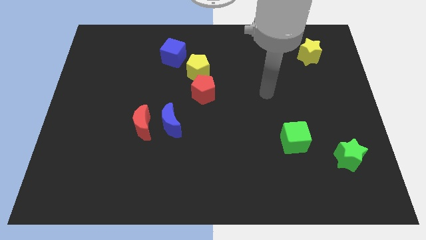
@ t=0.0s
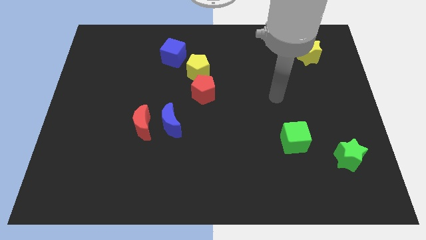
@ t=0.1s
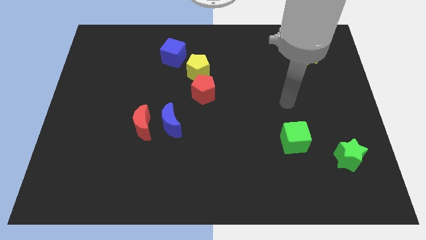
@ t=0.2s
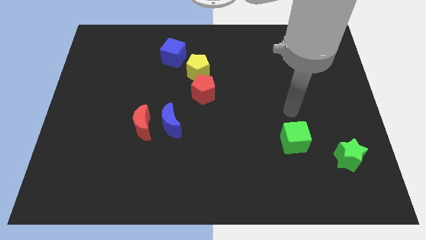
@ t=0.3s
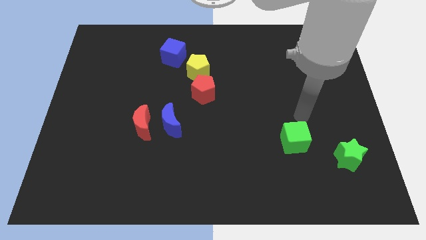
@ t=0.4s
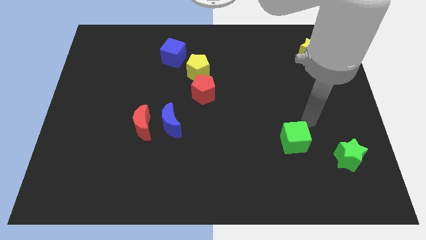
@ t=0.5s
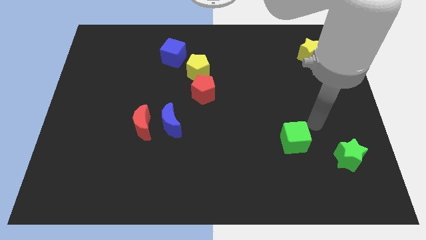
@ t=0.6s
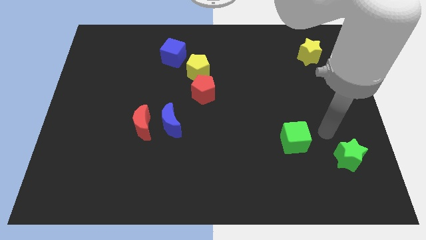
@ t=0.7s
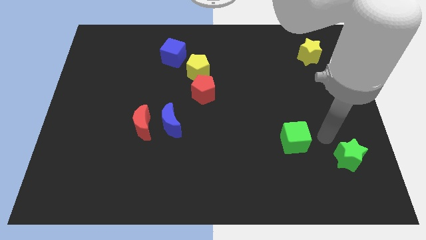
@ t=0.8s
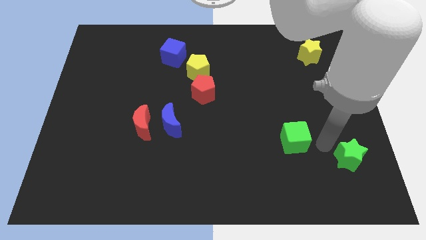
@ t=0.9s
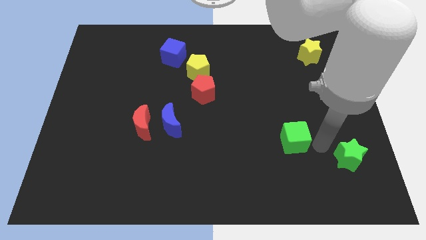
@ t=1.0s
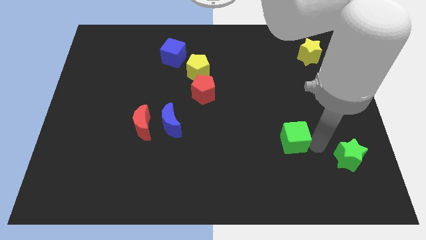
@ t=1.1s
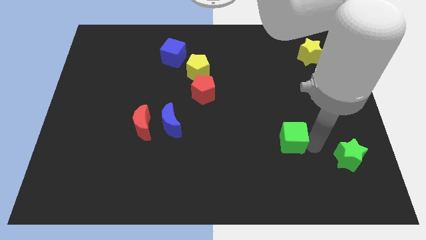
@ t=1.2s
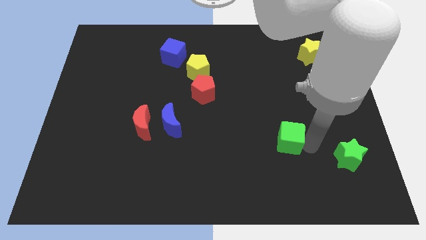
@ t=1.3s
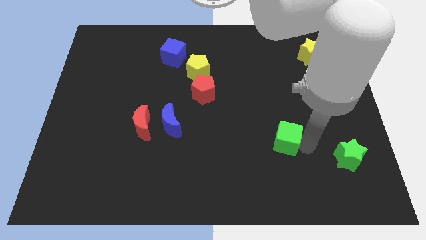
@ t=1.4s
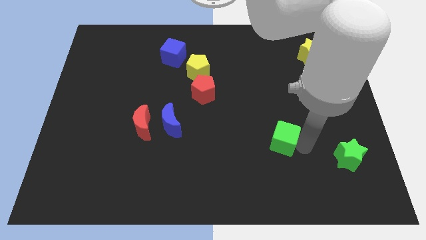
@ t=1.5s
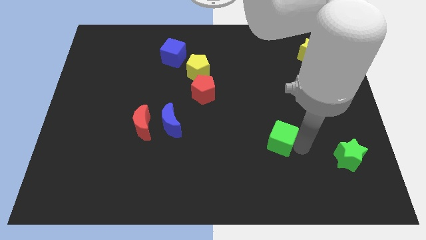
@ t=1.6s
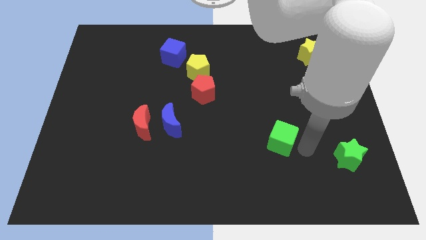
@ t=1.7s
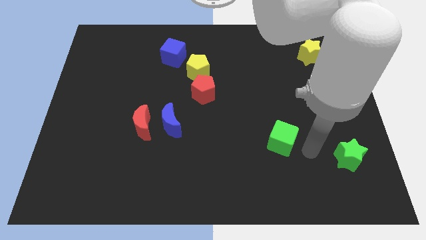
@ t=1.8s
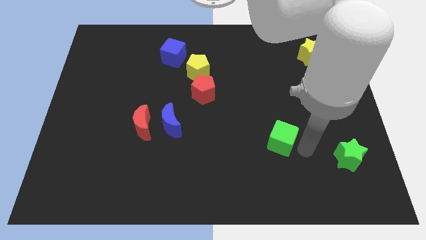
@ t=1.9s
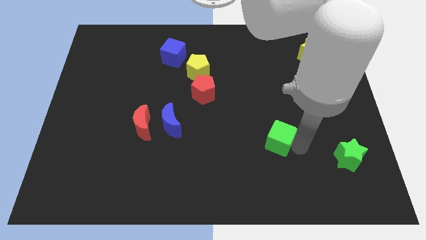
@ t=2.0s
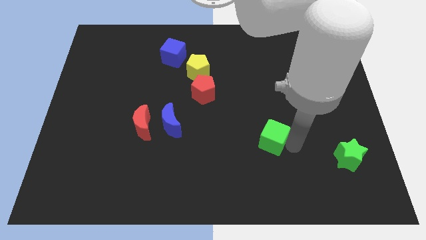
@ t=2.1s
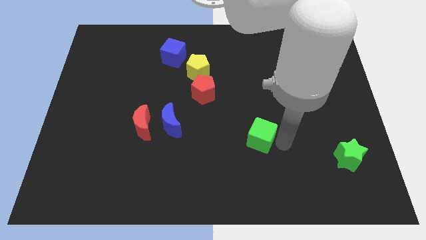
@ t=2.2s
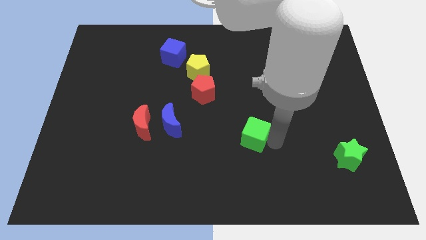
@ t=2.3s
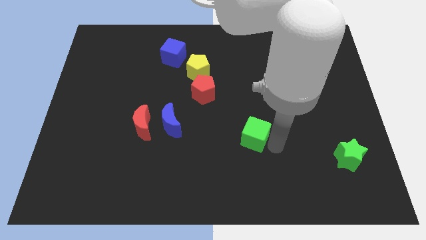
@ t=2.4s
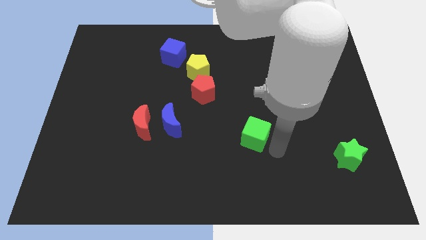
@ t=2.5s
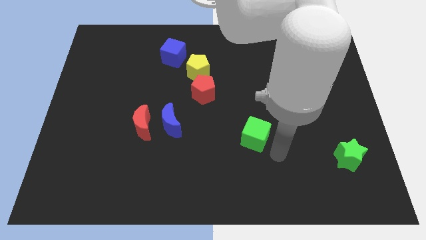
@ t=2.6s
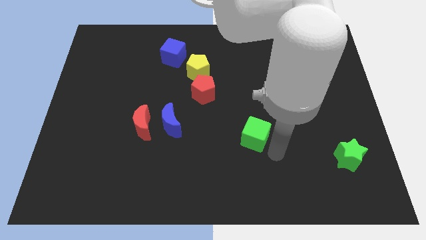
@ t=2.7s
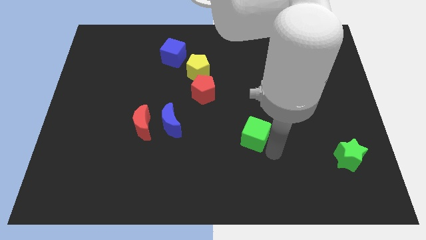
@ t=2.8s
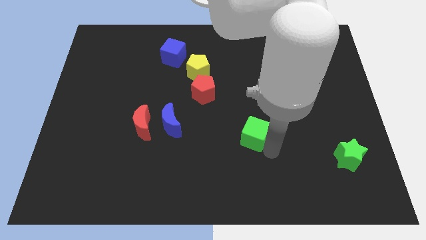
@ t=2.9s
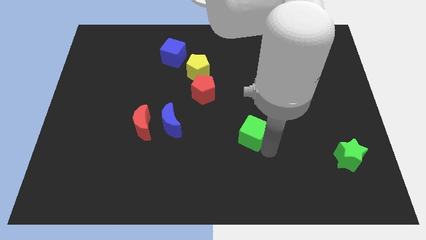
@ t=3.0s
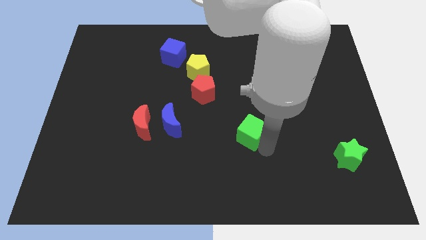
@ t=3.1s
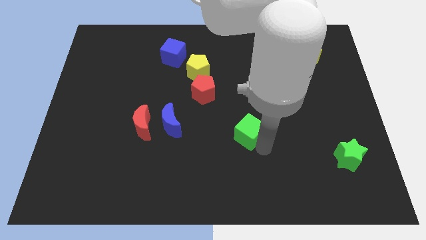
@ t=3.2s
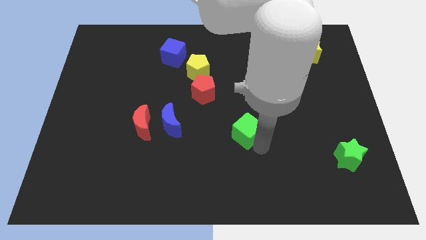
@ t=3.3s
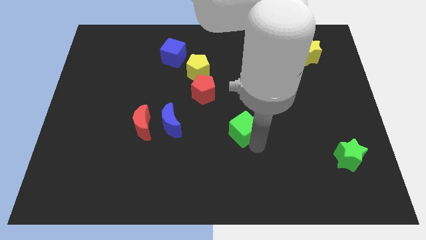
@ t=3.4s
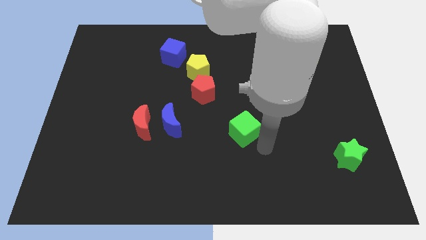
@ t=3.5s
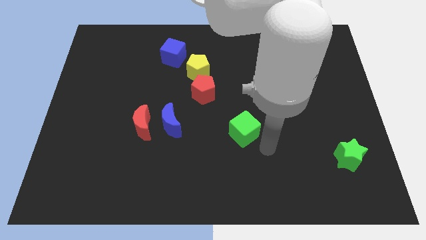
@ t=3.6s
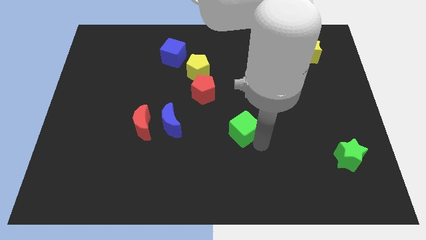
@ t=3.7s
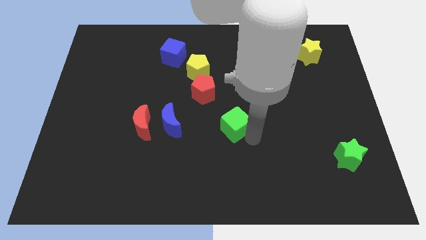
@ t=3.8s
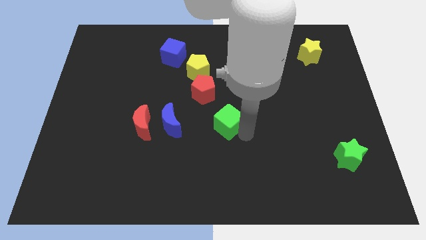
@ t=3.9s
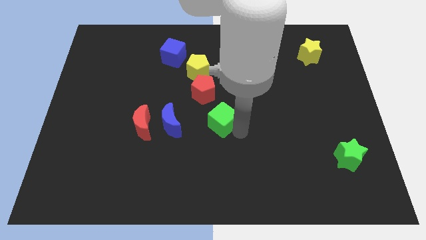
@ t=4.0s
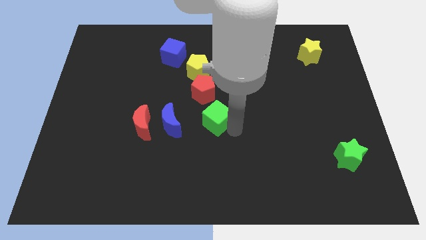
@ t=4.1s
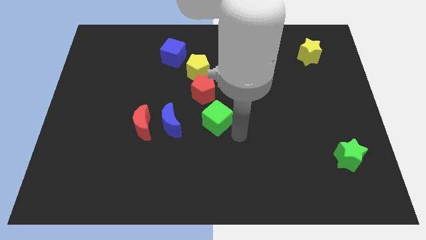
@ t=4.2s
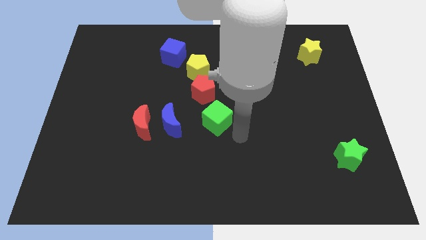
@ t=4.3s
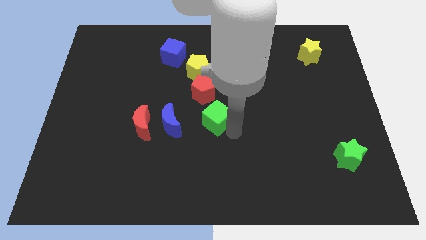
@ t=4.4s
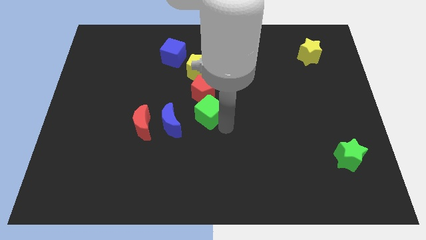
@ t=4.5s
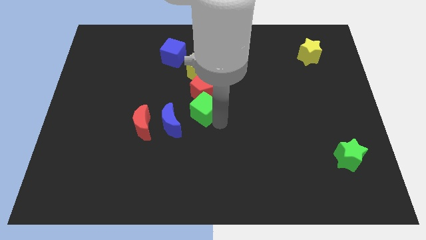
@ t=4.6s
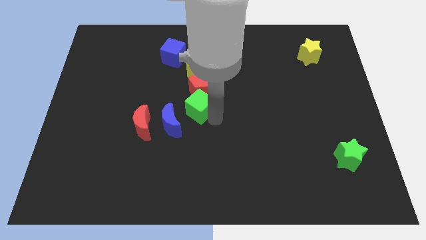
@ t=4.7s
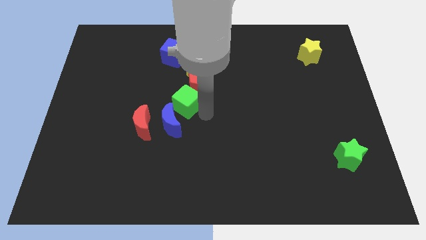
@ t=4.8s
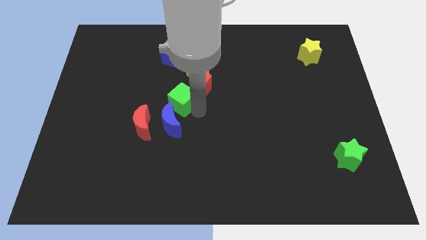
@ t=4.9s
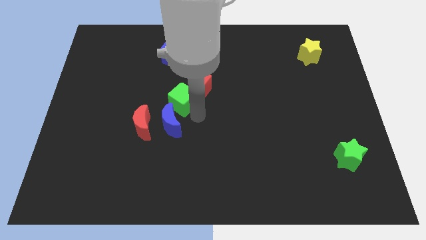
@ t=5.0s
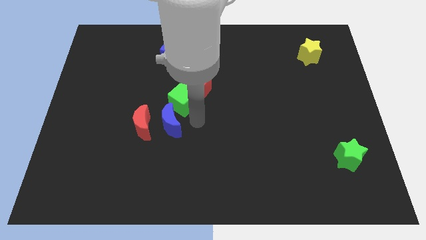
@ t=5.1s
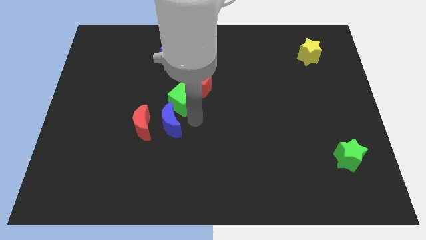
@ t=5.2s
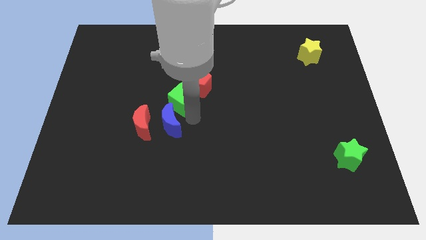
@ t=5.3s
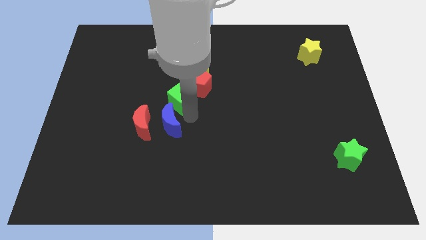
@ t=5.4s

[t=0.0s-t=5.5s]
move the green cube to the bottom of the blue cube

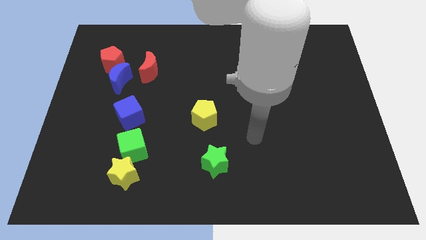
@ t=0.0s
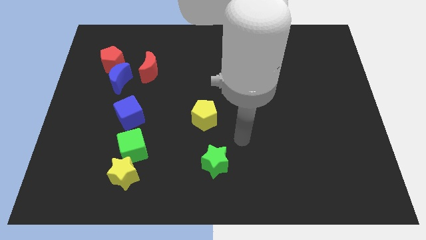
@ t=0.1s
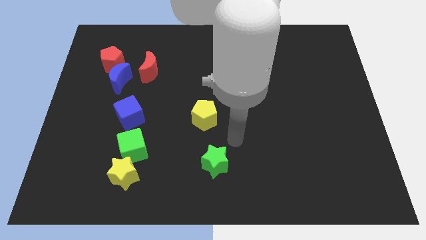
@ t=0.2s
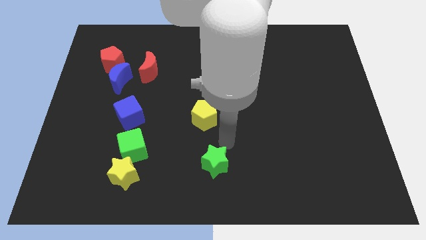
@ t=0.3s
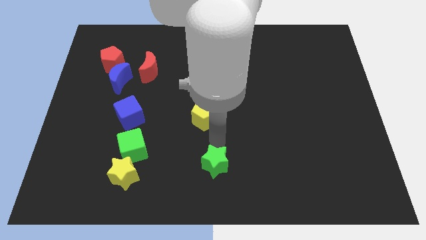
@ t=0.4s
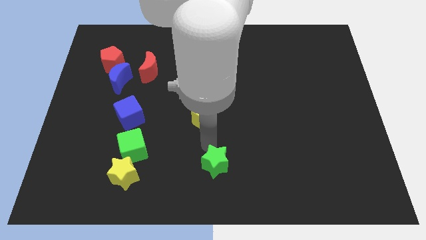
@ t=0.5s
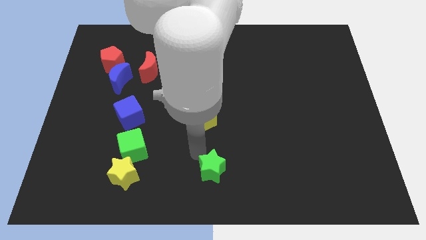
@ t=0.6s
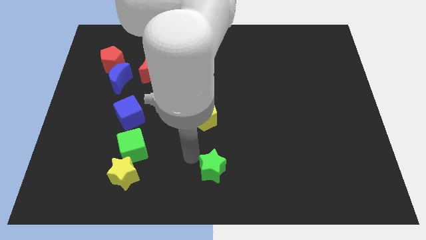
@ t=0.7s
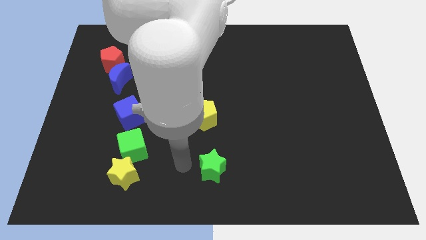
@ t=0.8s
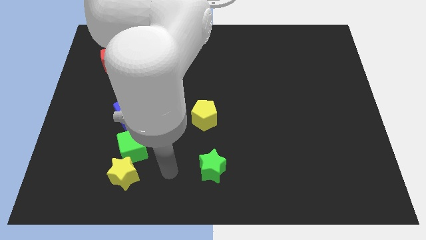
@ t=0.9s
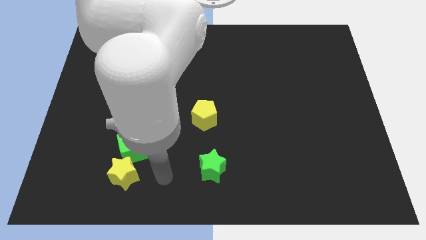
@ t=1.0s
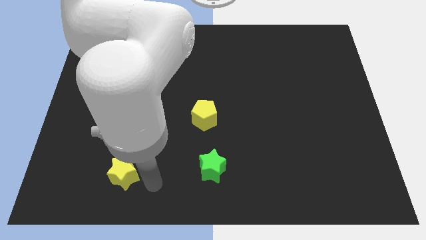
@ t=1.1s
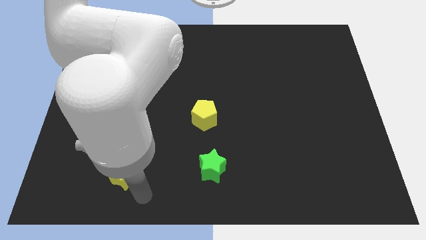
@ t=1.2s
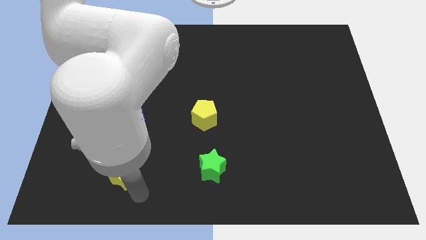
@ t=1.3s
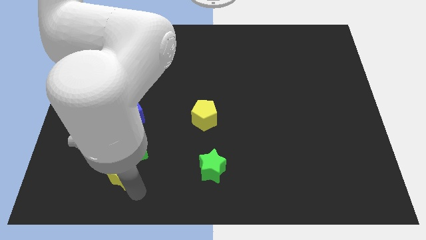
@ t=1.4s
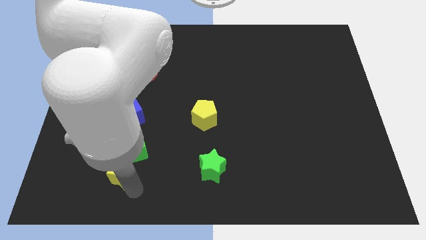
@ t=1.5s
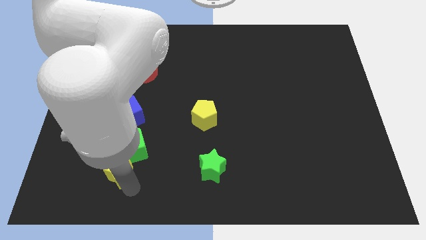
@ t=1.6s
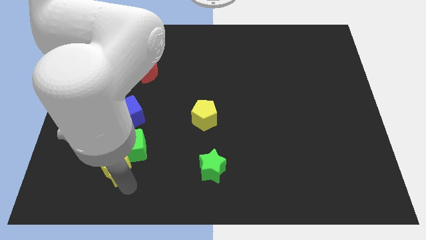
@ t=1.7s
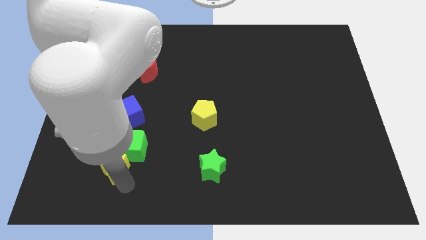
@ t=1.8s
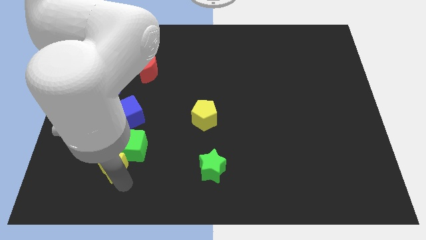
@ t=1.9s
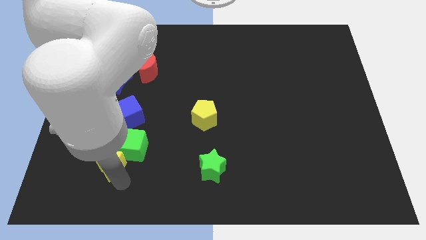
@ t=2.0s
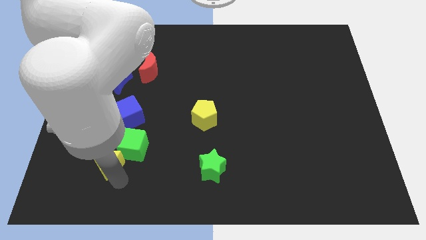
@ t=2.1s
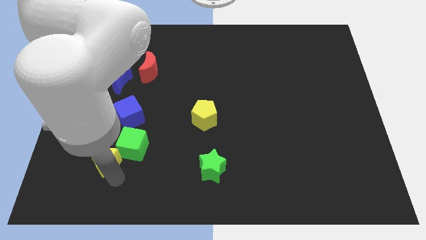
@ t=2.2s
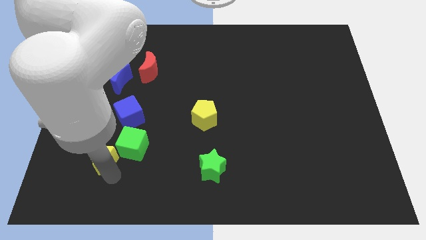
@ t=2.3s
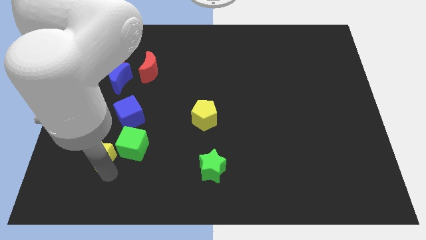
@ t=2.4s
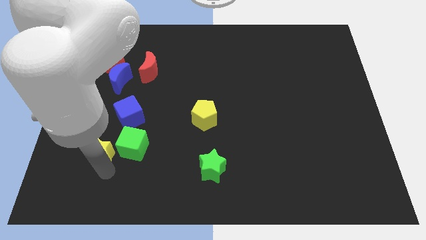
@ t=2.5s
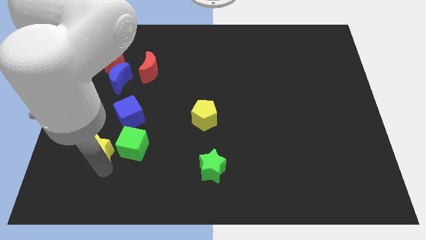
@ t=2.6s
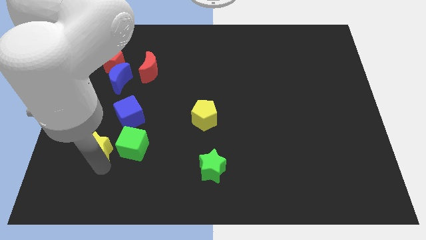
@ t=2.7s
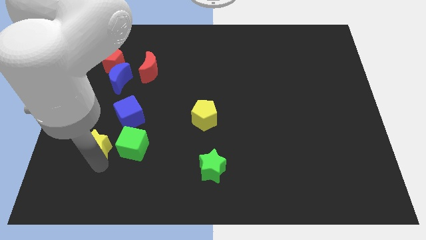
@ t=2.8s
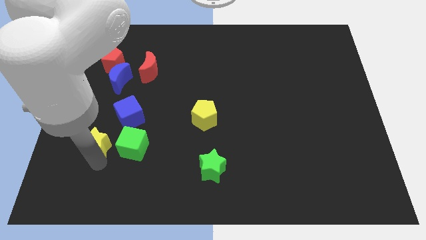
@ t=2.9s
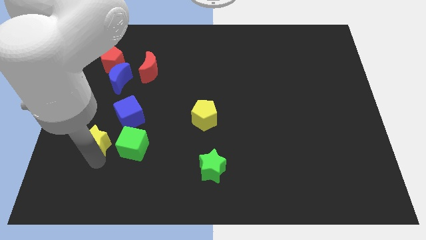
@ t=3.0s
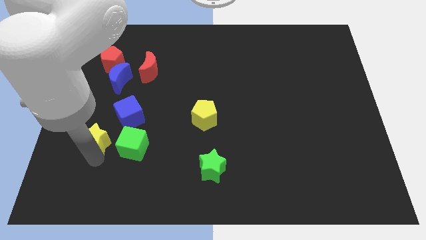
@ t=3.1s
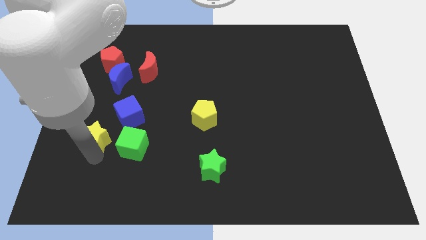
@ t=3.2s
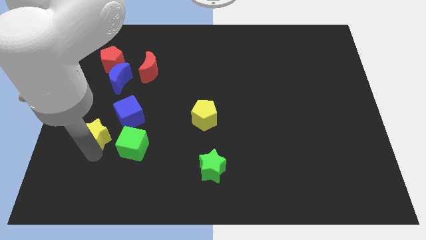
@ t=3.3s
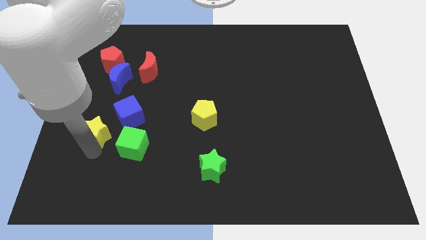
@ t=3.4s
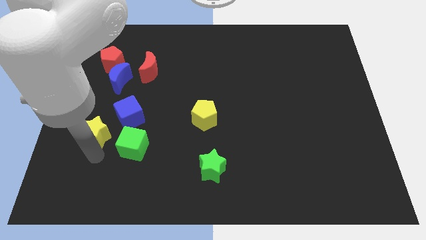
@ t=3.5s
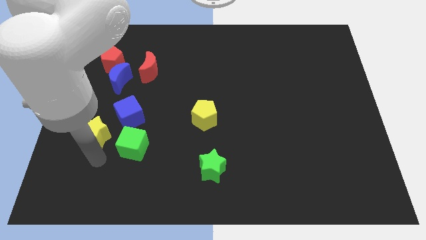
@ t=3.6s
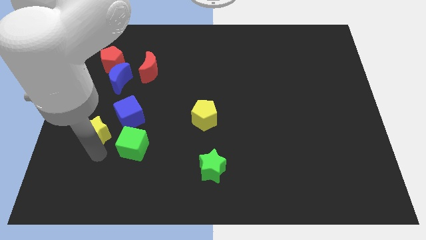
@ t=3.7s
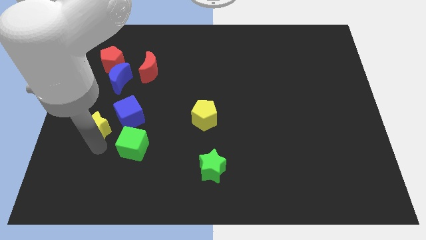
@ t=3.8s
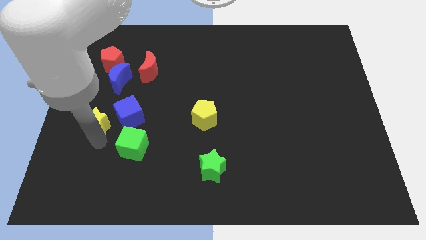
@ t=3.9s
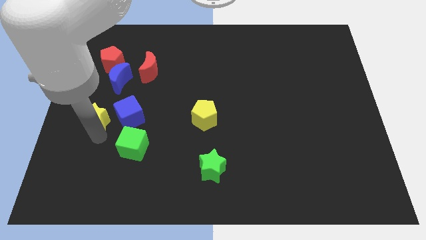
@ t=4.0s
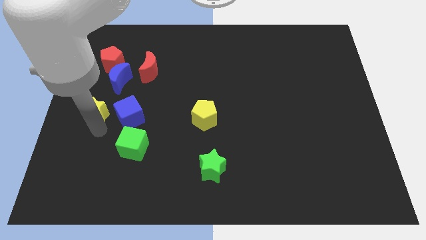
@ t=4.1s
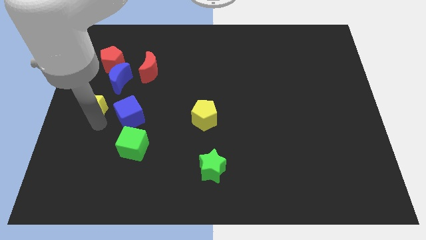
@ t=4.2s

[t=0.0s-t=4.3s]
move the yellow star to the bottom left side of the blue moon
